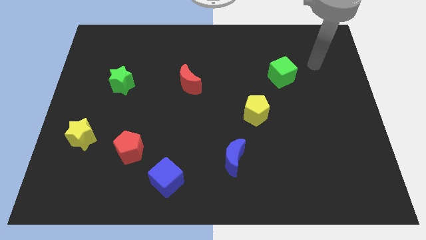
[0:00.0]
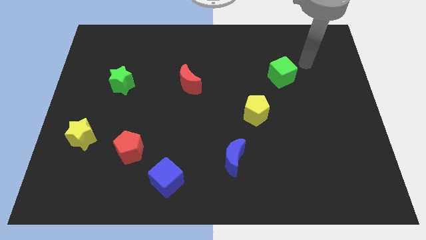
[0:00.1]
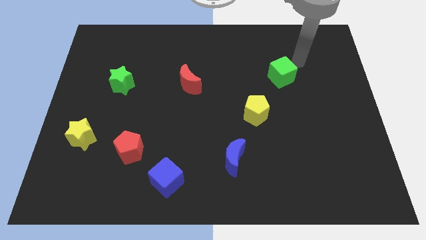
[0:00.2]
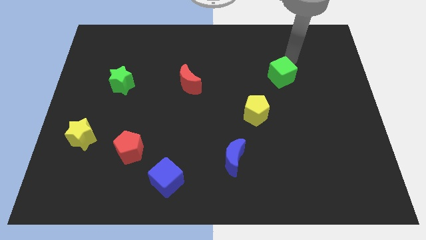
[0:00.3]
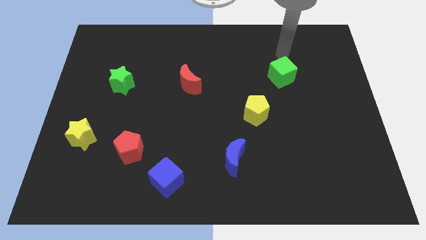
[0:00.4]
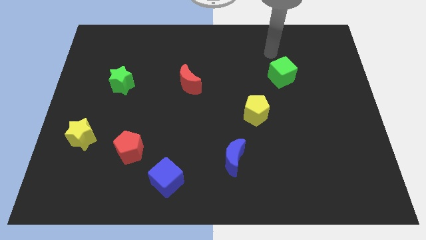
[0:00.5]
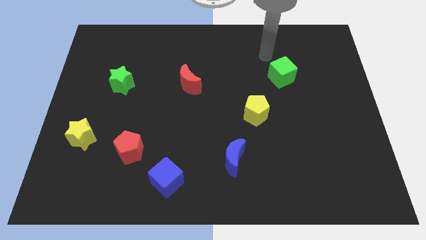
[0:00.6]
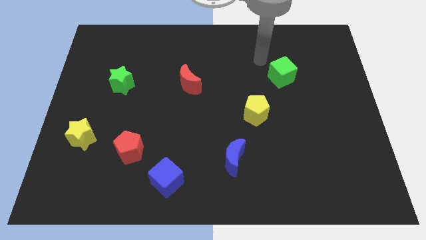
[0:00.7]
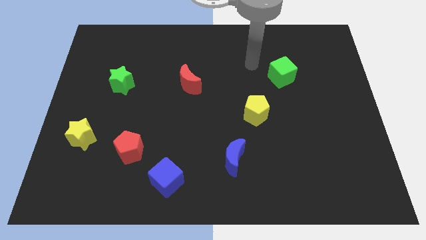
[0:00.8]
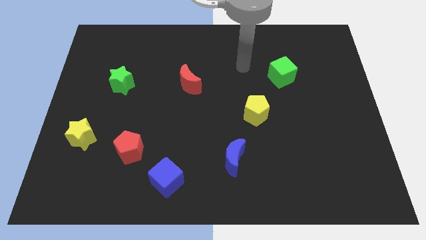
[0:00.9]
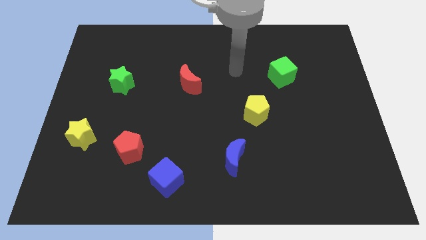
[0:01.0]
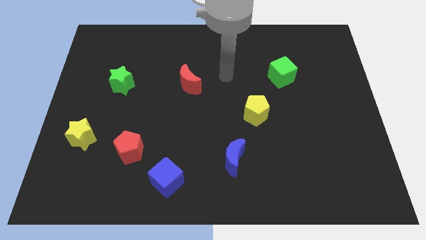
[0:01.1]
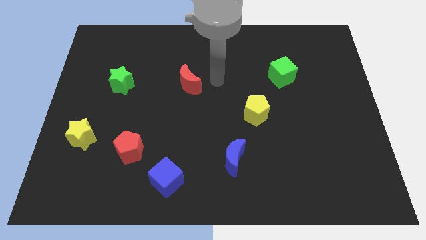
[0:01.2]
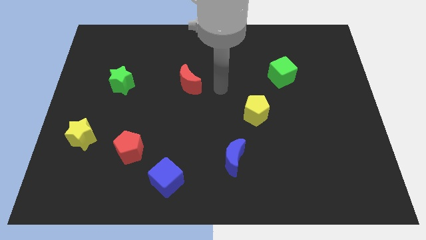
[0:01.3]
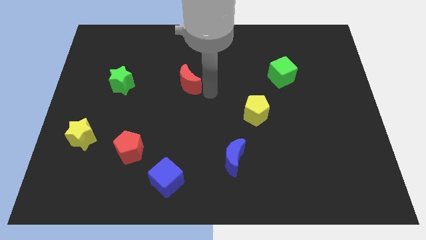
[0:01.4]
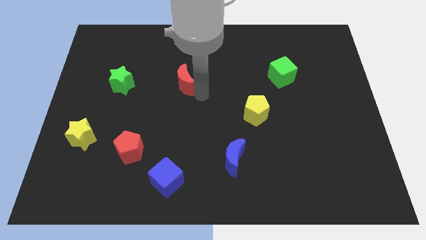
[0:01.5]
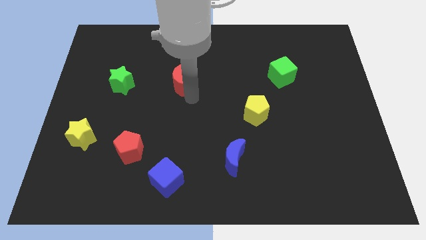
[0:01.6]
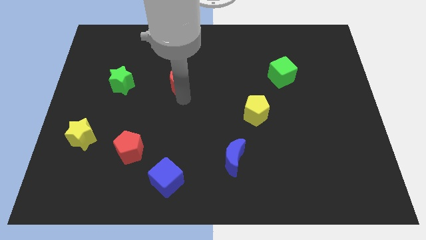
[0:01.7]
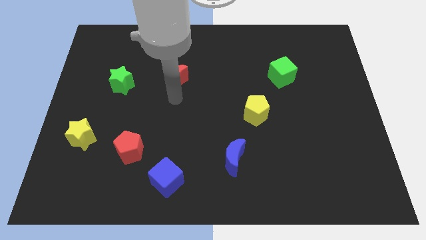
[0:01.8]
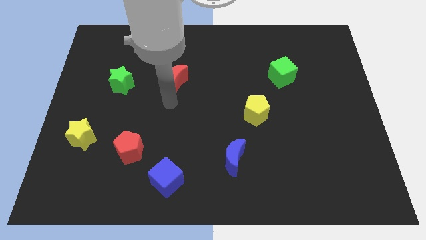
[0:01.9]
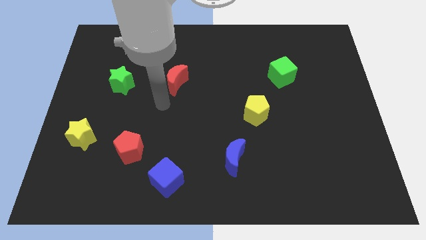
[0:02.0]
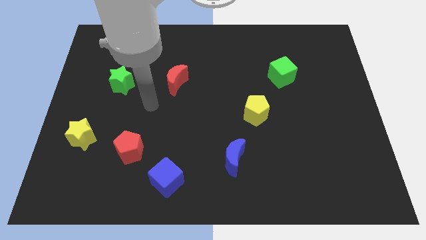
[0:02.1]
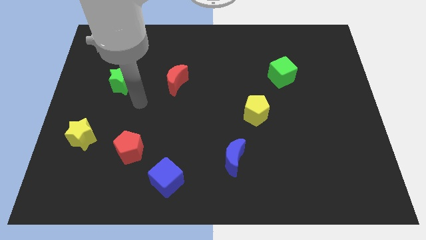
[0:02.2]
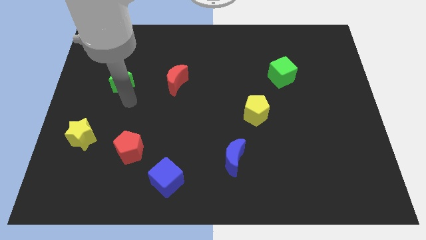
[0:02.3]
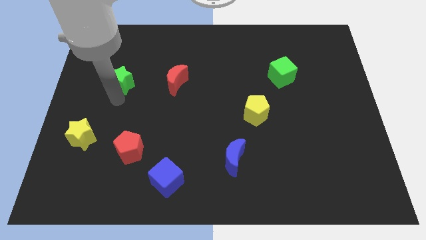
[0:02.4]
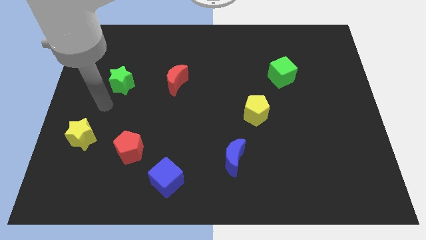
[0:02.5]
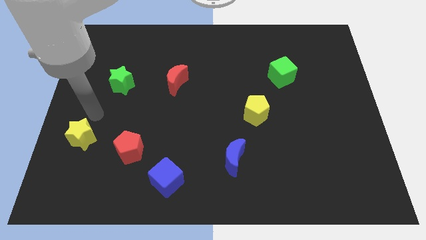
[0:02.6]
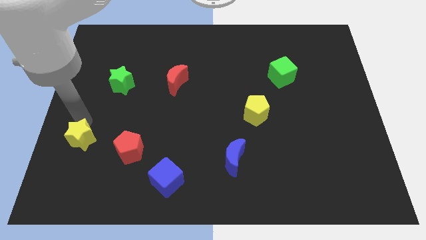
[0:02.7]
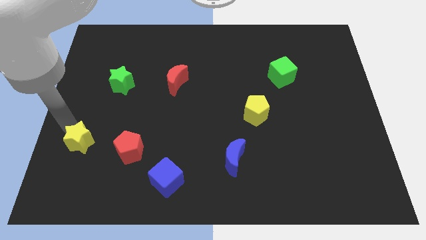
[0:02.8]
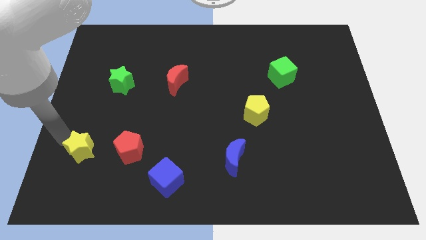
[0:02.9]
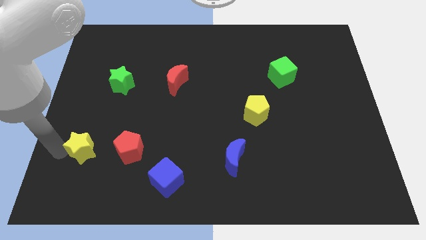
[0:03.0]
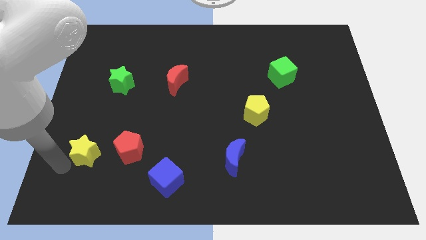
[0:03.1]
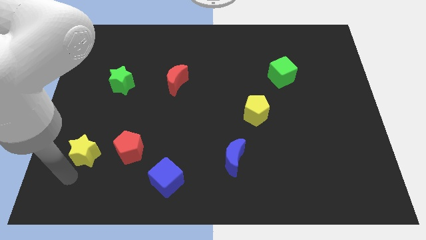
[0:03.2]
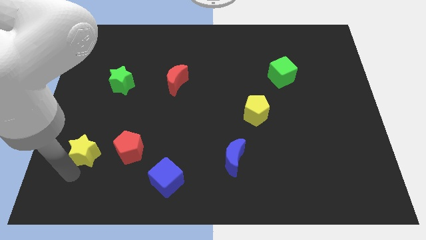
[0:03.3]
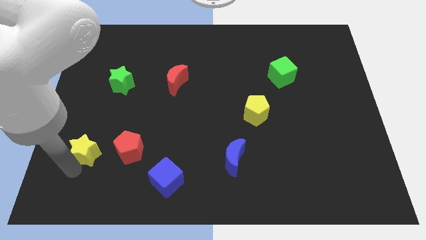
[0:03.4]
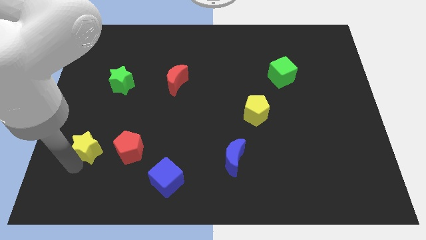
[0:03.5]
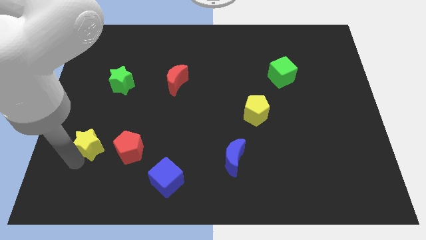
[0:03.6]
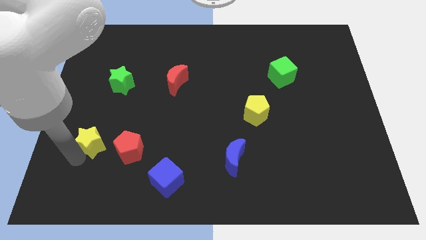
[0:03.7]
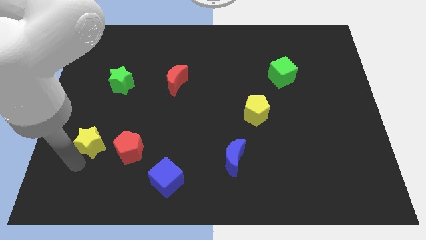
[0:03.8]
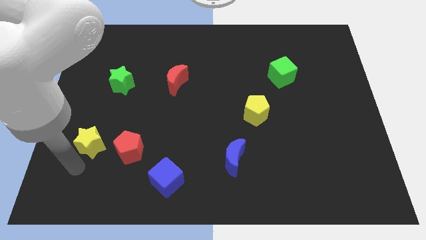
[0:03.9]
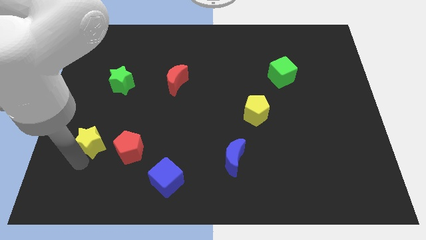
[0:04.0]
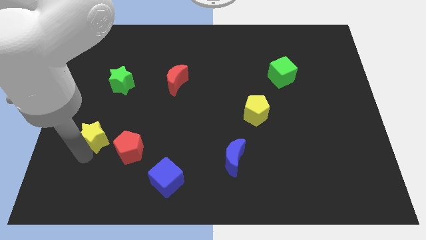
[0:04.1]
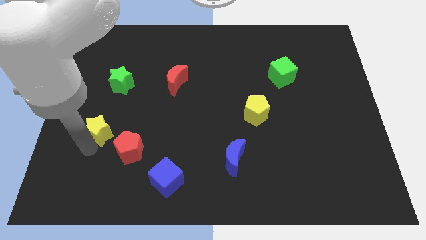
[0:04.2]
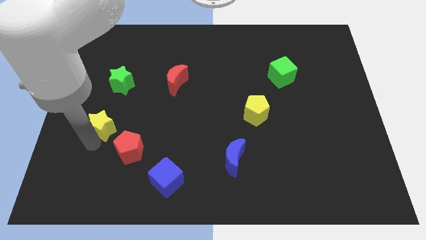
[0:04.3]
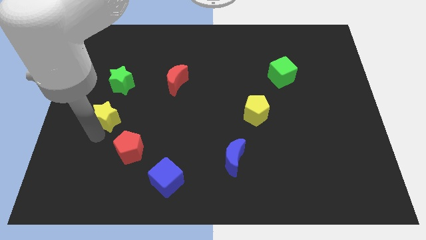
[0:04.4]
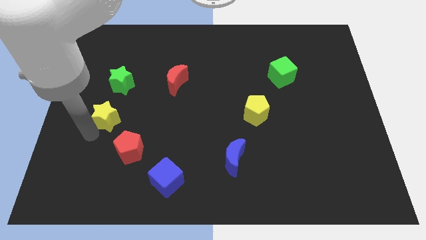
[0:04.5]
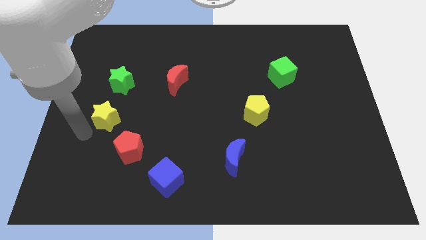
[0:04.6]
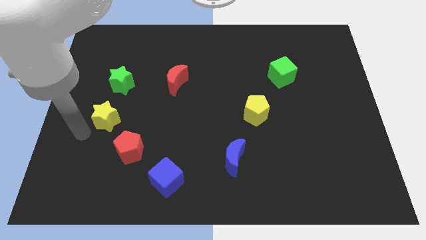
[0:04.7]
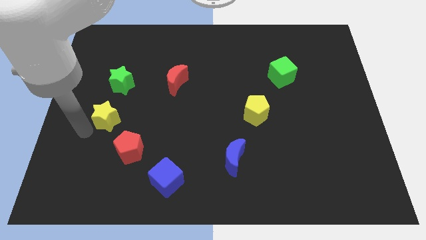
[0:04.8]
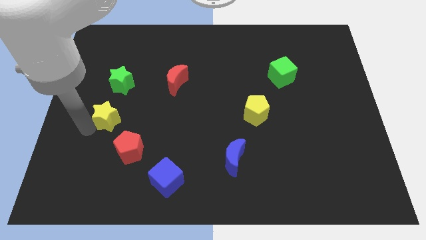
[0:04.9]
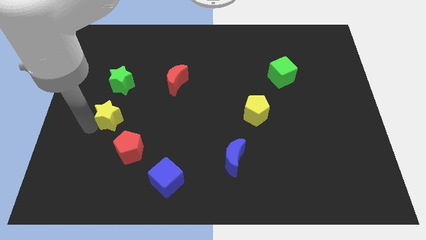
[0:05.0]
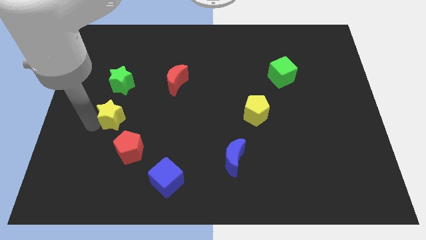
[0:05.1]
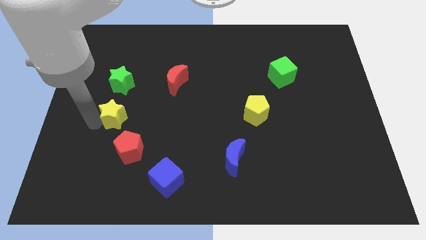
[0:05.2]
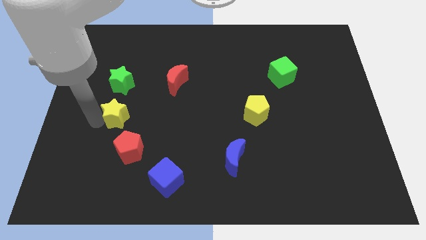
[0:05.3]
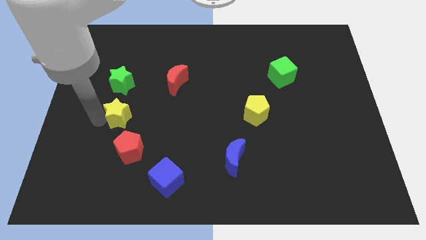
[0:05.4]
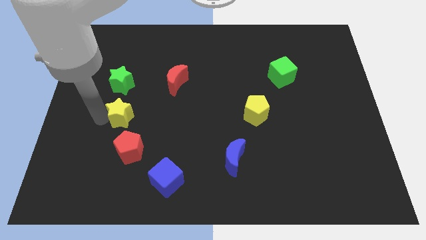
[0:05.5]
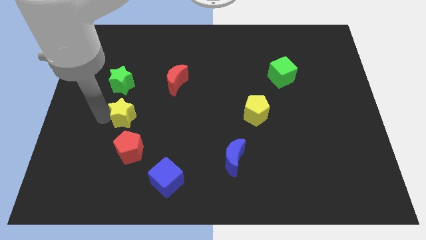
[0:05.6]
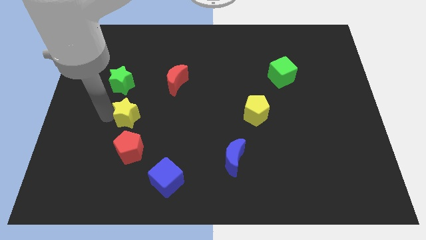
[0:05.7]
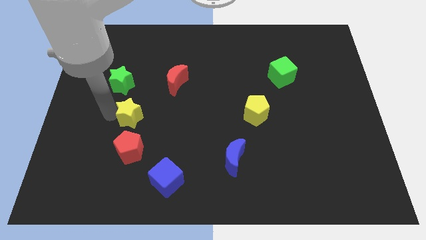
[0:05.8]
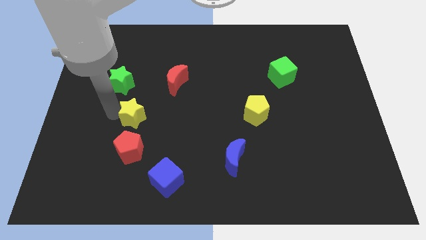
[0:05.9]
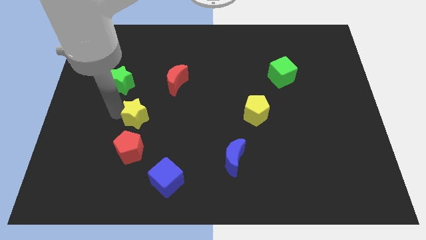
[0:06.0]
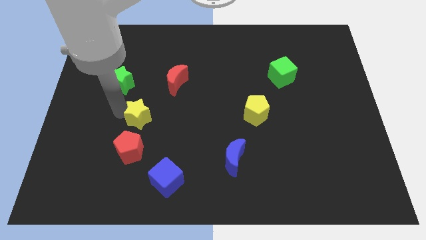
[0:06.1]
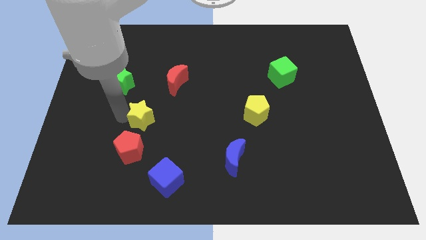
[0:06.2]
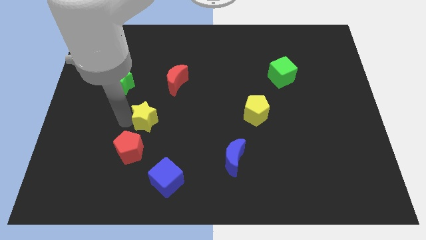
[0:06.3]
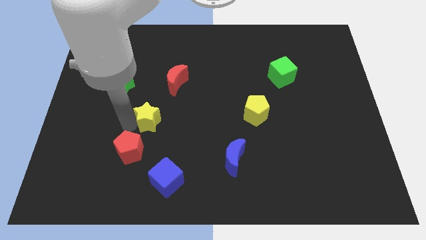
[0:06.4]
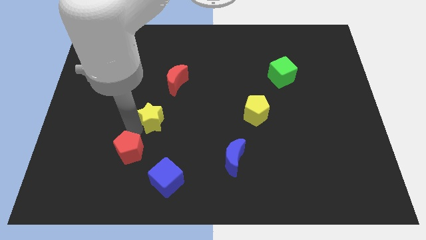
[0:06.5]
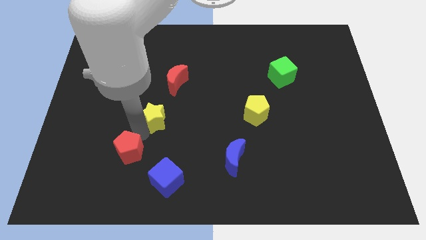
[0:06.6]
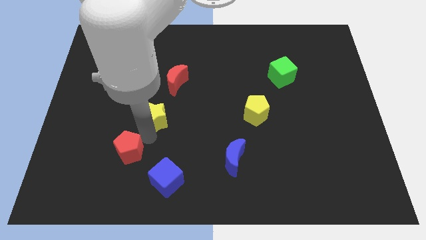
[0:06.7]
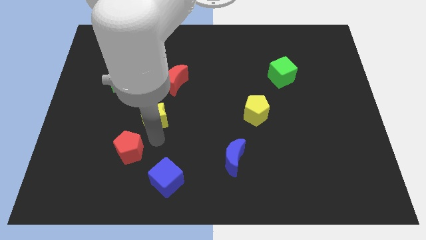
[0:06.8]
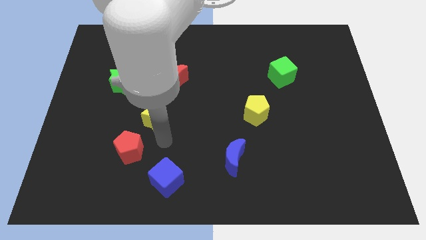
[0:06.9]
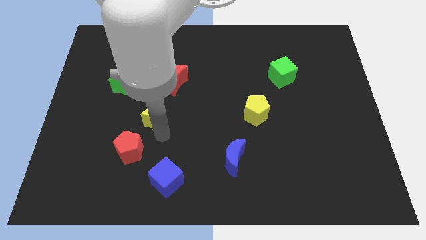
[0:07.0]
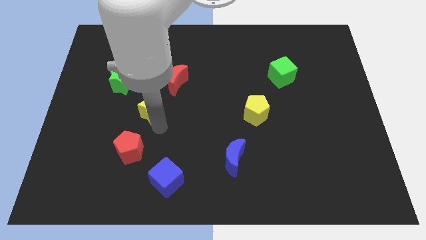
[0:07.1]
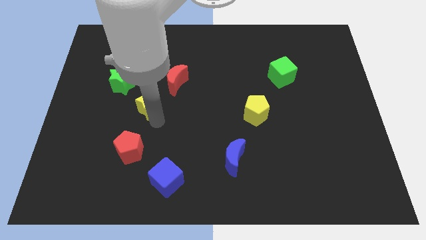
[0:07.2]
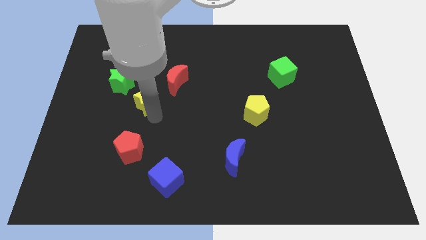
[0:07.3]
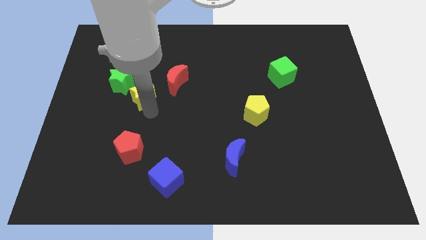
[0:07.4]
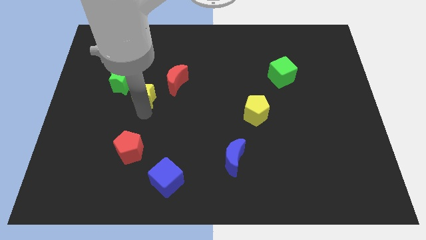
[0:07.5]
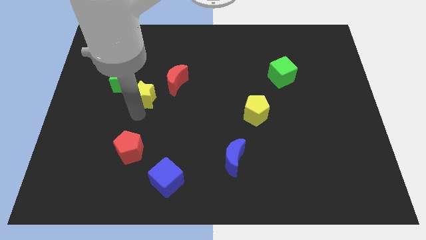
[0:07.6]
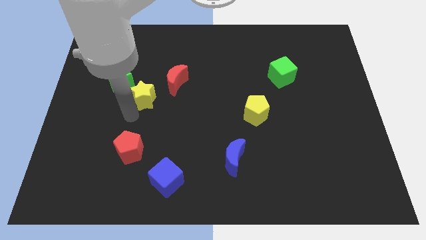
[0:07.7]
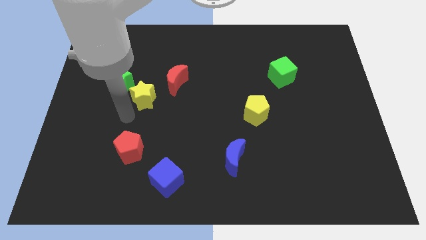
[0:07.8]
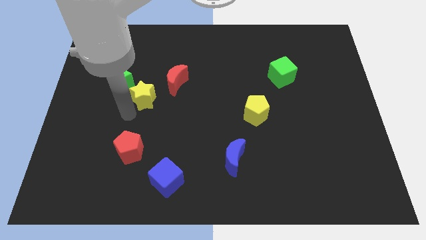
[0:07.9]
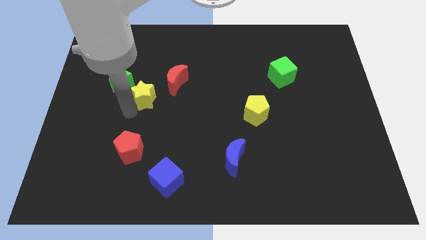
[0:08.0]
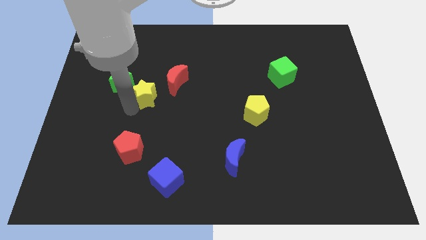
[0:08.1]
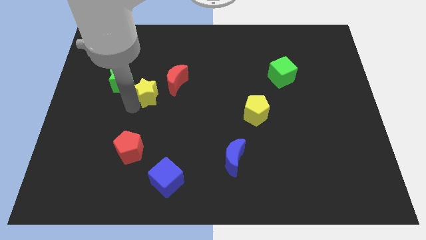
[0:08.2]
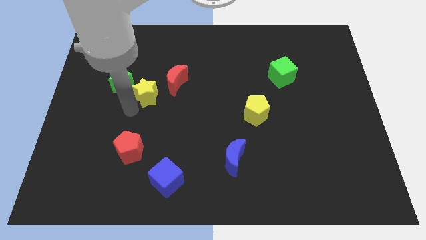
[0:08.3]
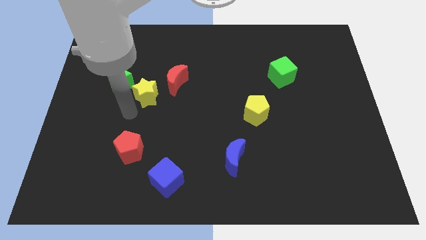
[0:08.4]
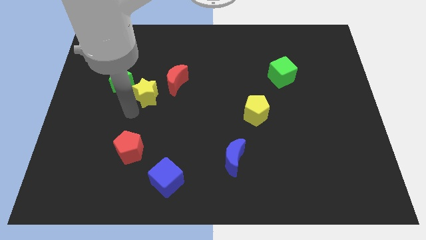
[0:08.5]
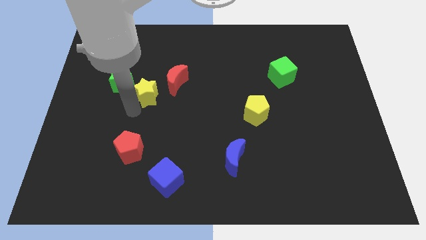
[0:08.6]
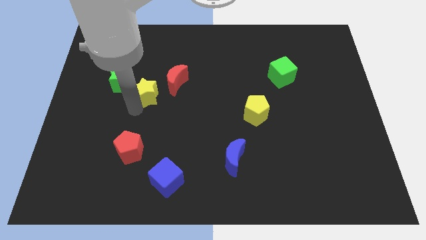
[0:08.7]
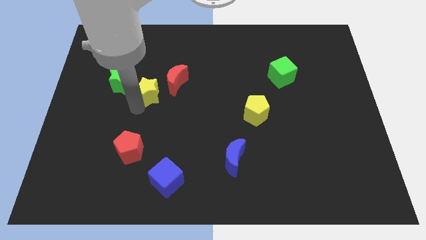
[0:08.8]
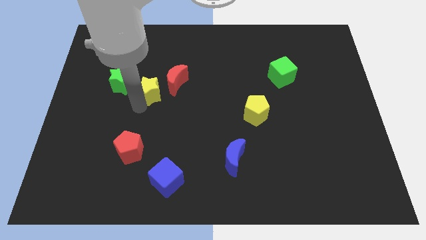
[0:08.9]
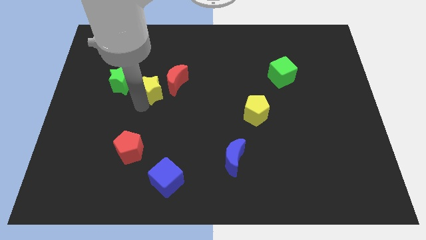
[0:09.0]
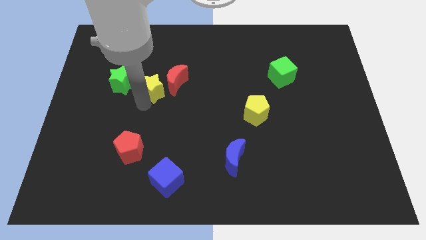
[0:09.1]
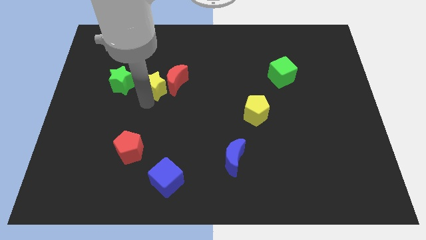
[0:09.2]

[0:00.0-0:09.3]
push the yellow star diagonally upwards and right
